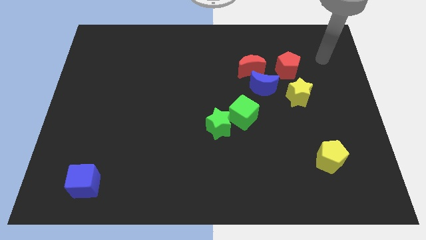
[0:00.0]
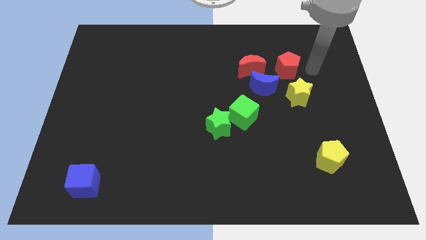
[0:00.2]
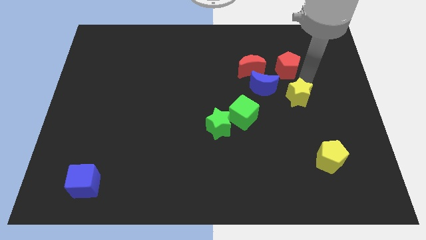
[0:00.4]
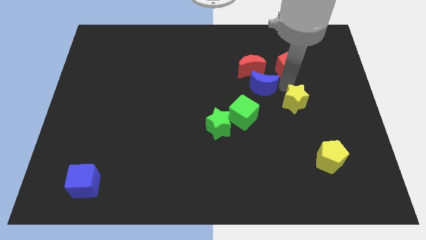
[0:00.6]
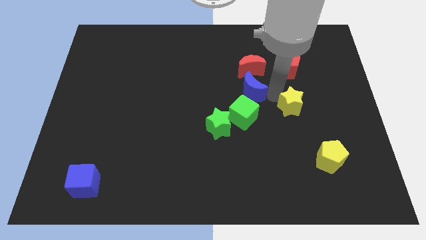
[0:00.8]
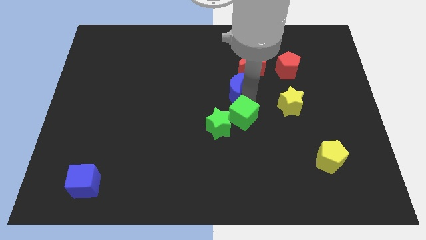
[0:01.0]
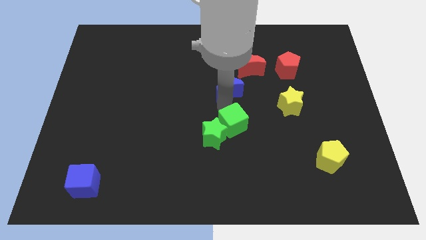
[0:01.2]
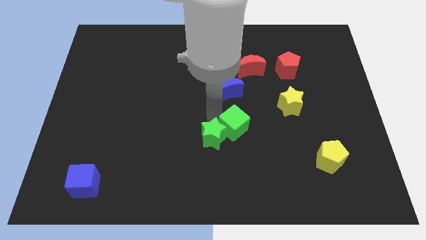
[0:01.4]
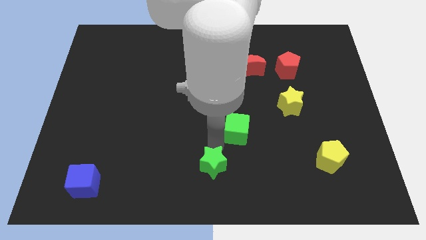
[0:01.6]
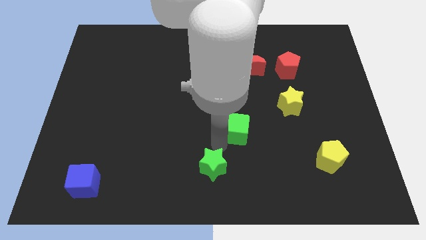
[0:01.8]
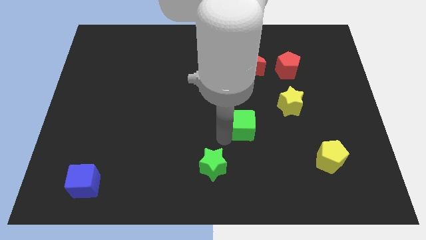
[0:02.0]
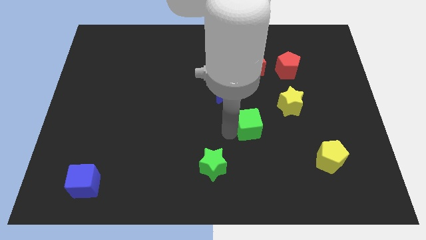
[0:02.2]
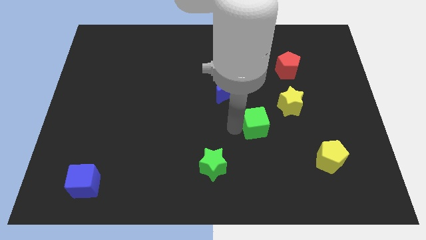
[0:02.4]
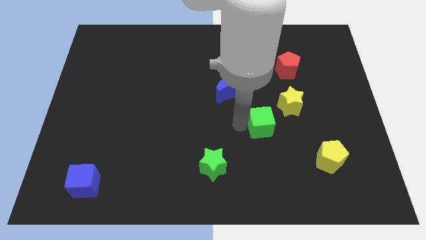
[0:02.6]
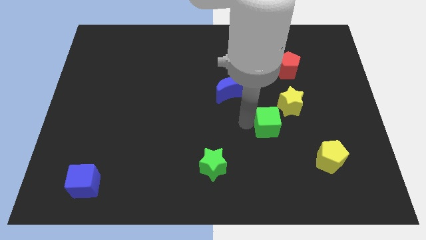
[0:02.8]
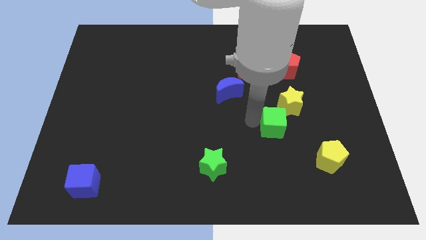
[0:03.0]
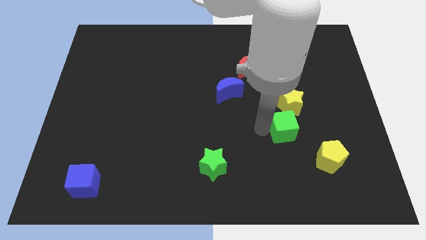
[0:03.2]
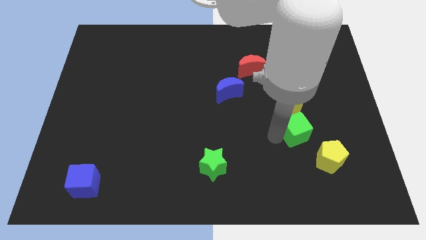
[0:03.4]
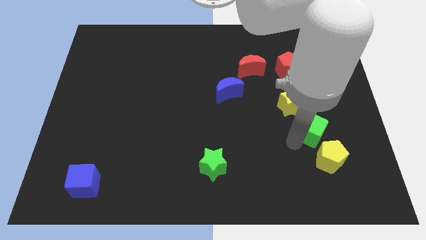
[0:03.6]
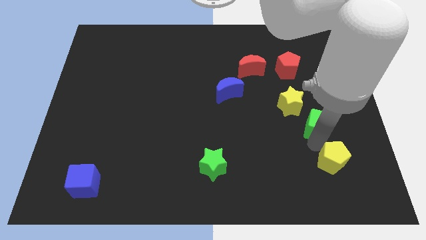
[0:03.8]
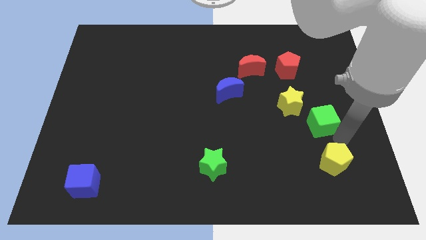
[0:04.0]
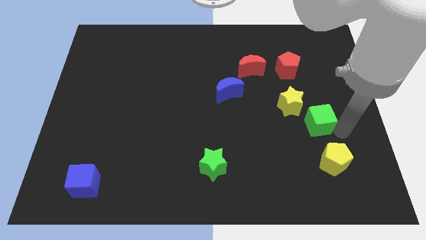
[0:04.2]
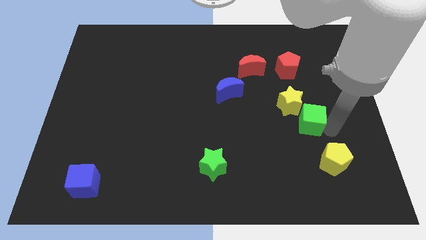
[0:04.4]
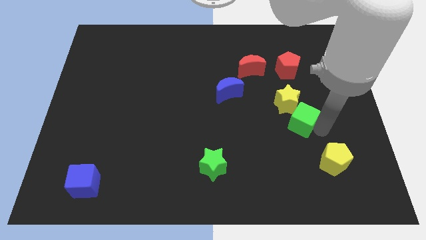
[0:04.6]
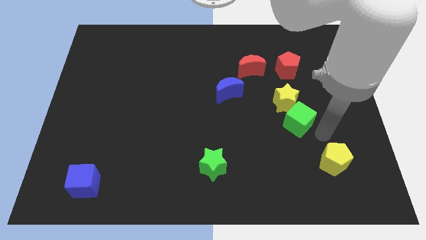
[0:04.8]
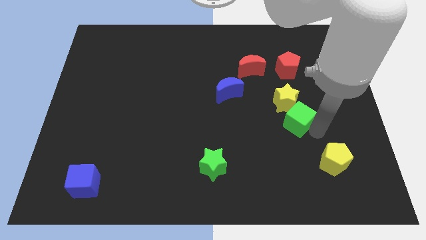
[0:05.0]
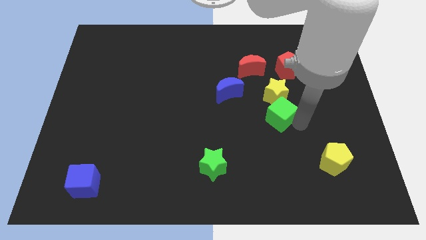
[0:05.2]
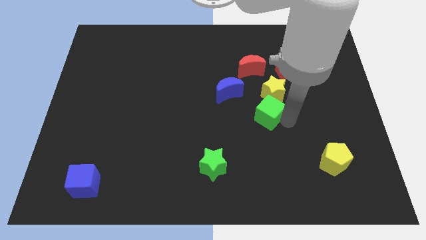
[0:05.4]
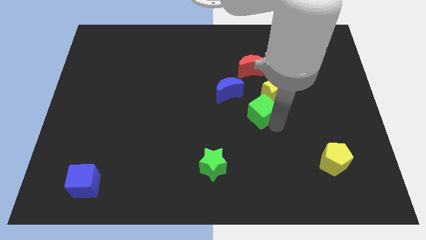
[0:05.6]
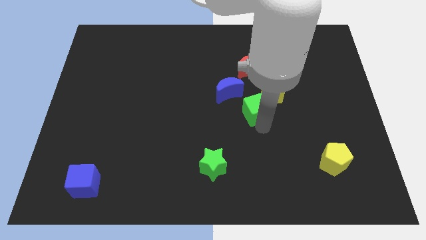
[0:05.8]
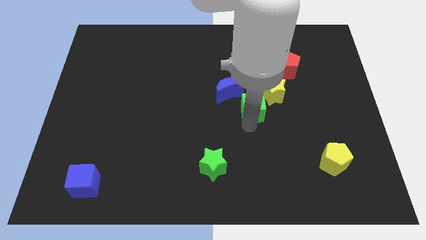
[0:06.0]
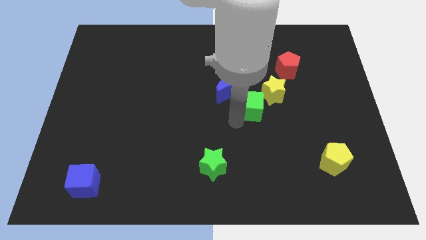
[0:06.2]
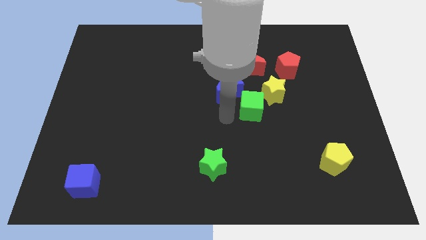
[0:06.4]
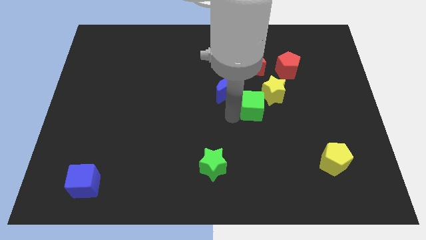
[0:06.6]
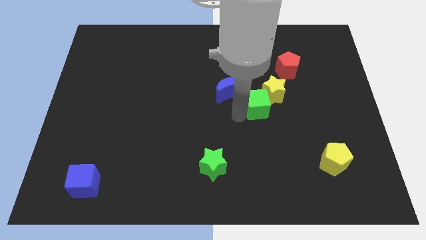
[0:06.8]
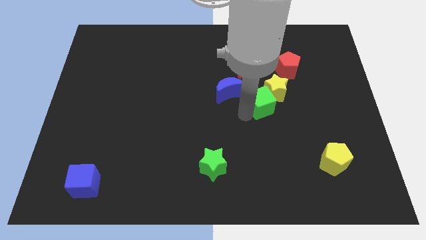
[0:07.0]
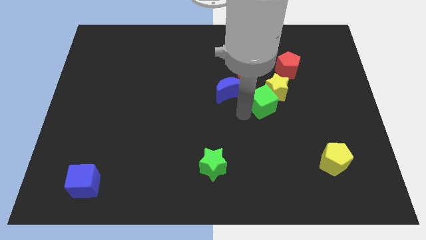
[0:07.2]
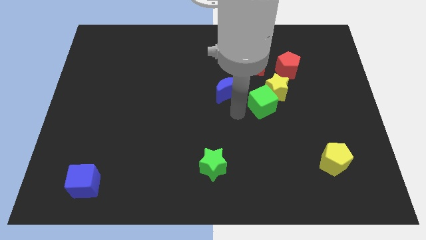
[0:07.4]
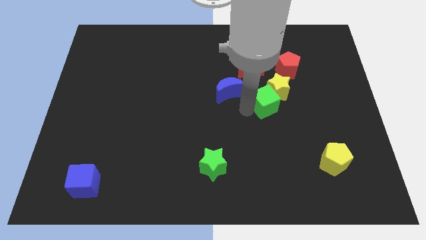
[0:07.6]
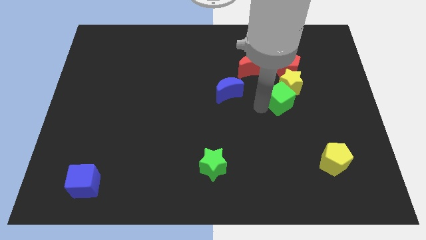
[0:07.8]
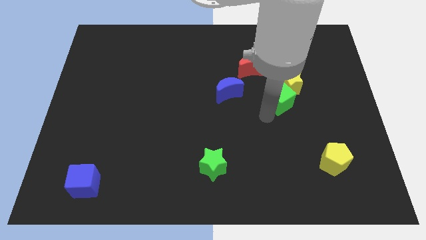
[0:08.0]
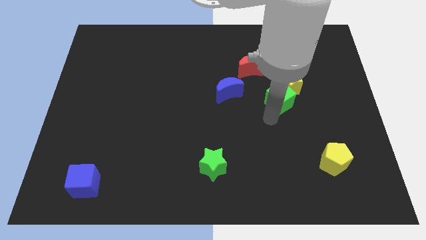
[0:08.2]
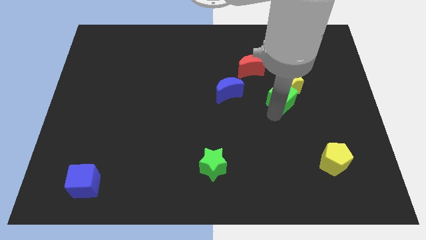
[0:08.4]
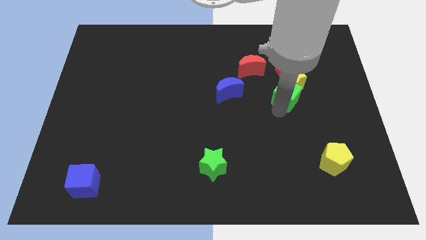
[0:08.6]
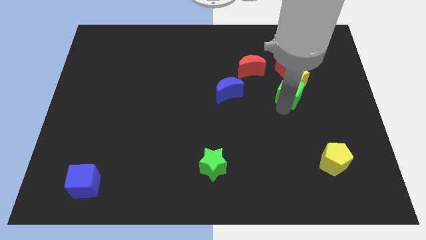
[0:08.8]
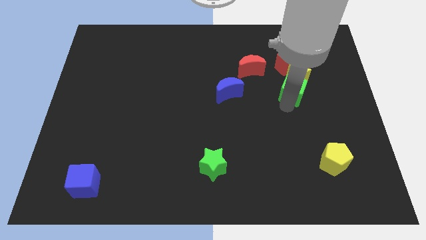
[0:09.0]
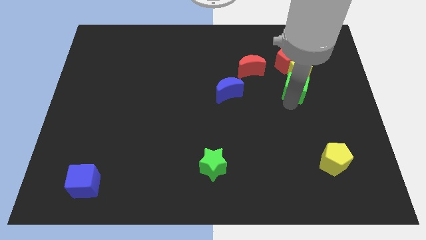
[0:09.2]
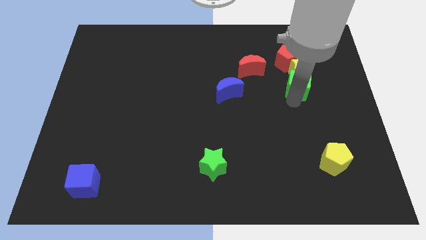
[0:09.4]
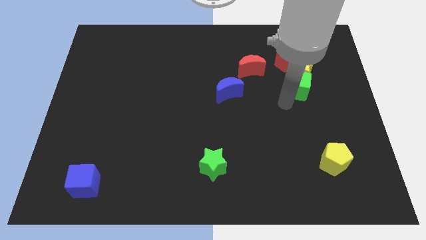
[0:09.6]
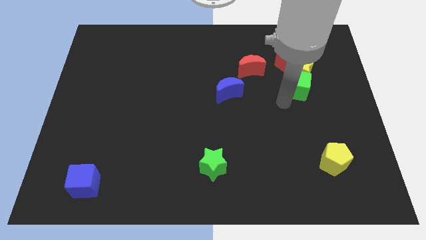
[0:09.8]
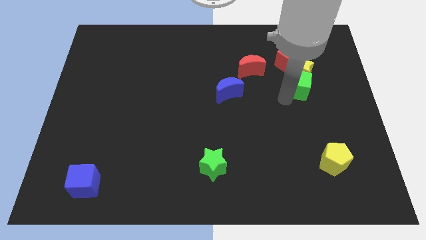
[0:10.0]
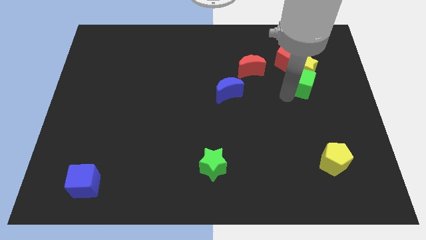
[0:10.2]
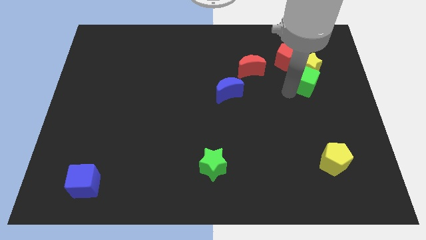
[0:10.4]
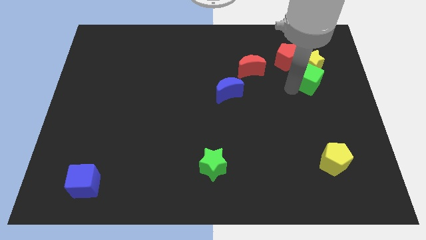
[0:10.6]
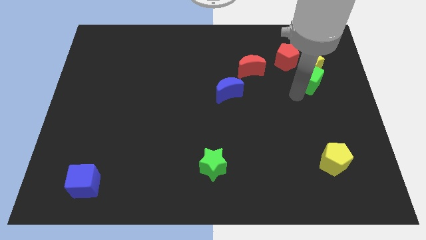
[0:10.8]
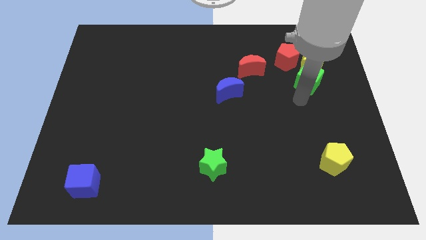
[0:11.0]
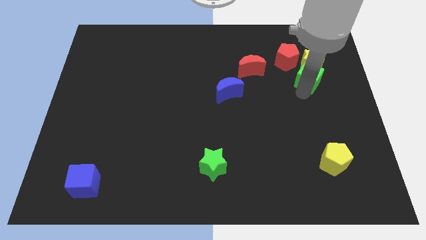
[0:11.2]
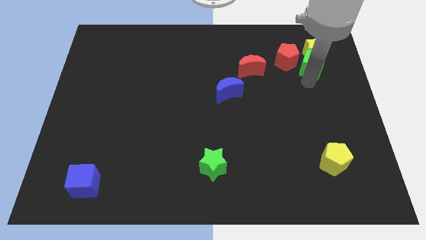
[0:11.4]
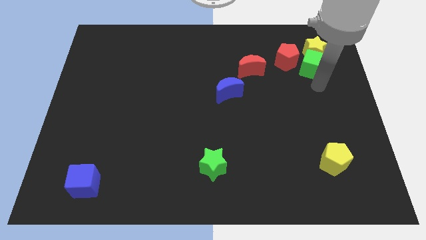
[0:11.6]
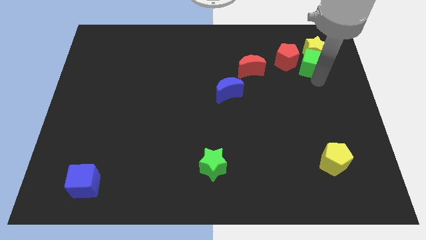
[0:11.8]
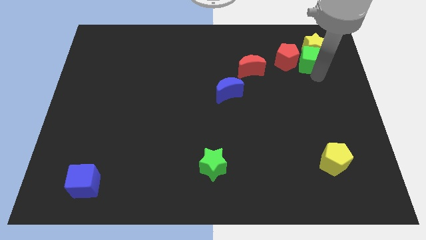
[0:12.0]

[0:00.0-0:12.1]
push the green cube to the top right of the red pentagon
